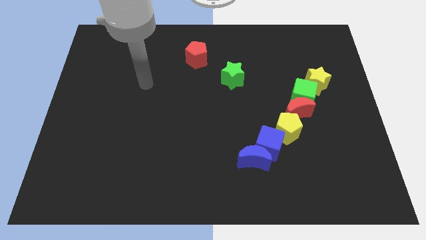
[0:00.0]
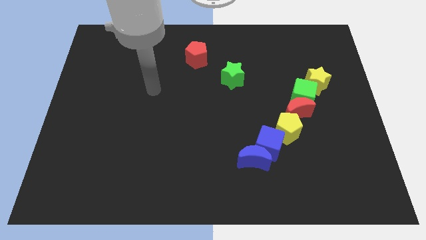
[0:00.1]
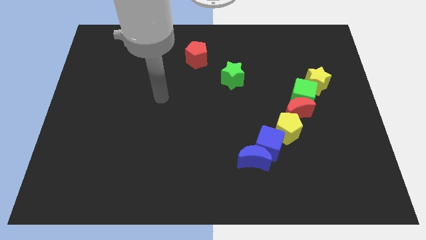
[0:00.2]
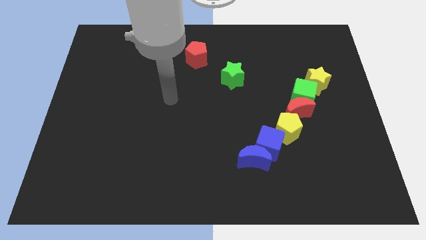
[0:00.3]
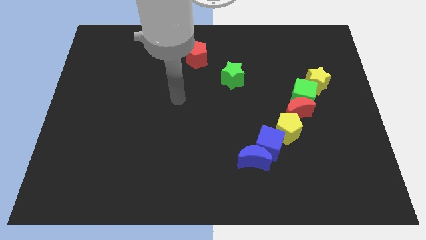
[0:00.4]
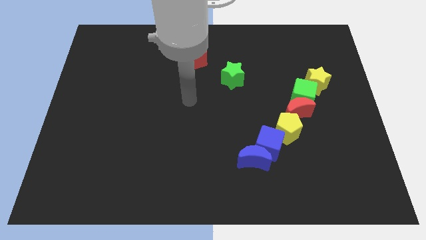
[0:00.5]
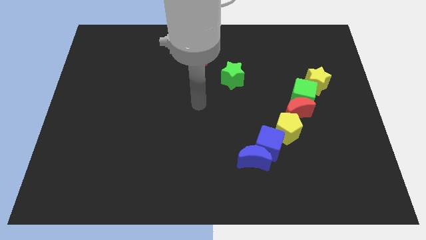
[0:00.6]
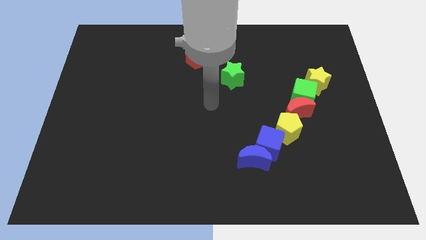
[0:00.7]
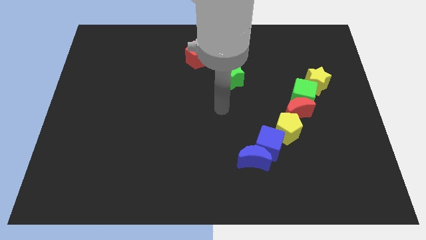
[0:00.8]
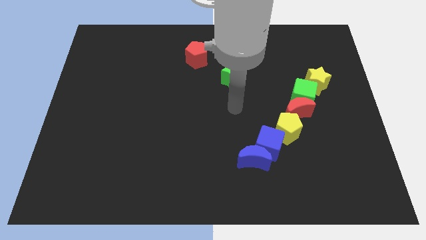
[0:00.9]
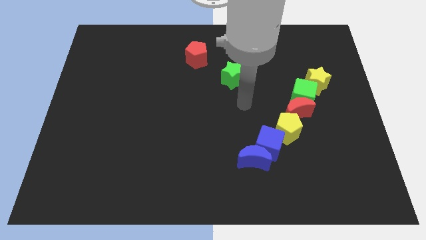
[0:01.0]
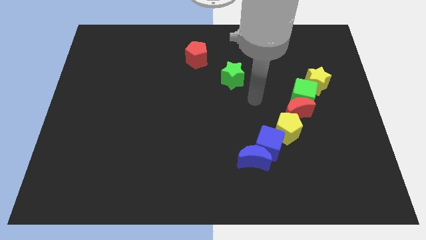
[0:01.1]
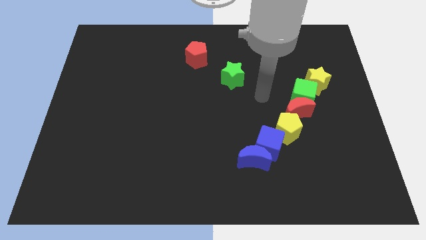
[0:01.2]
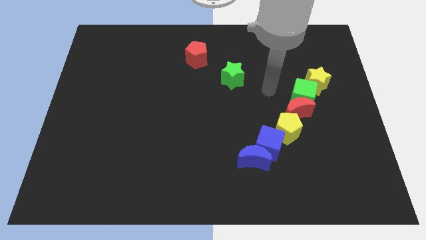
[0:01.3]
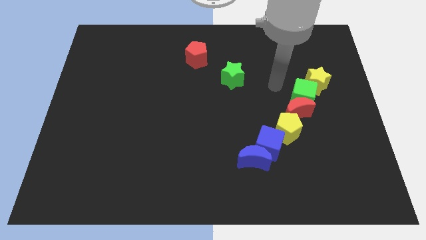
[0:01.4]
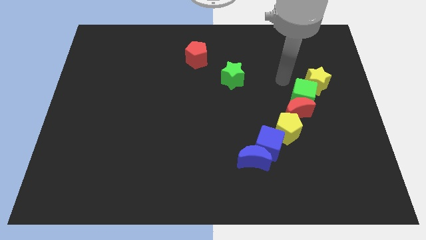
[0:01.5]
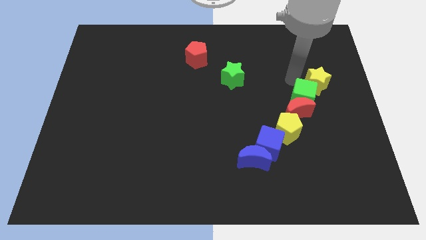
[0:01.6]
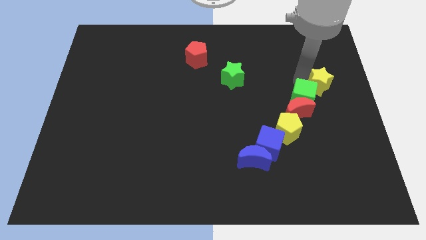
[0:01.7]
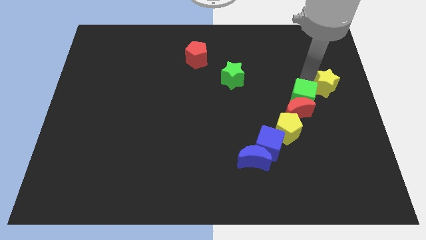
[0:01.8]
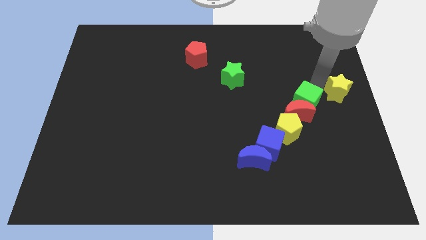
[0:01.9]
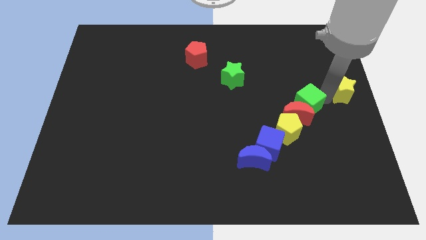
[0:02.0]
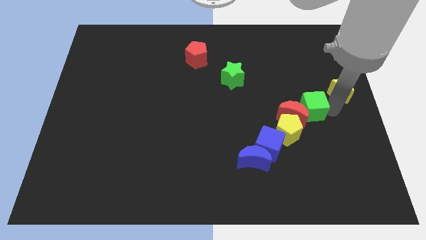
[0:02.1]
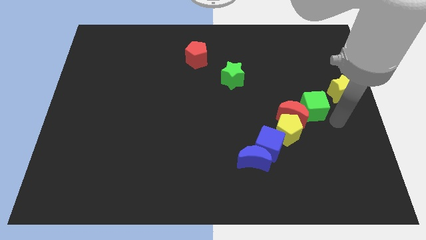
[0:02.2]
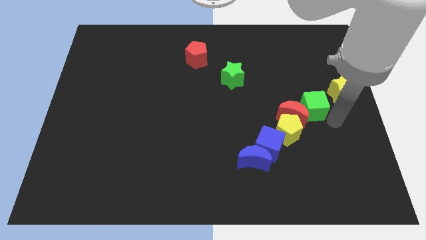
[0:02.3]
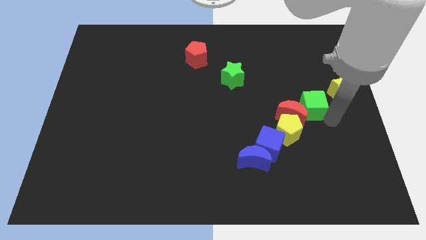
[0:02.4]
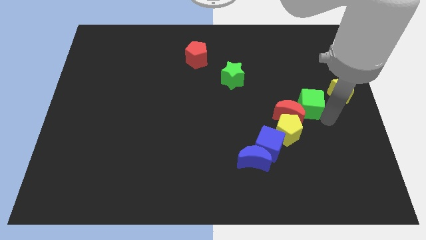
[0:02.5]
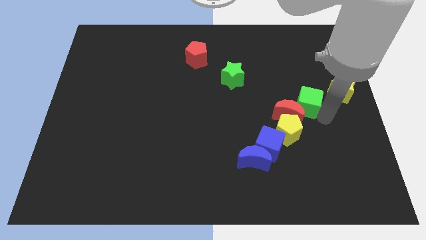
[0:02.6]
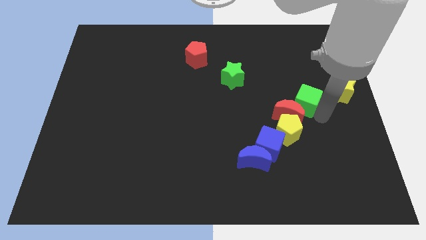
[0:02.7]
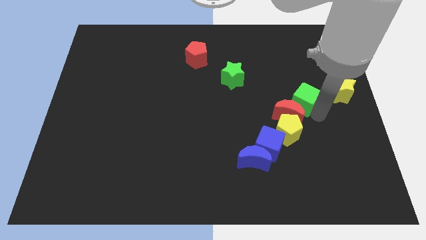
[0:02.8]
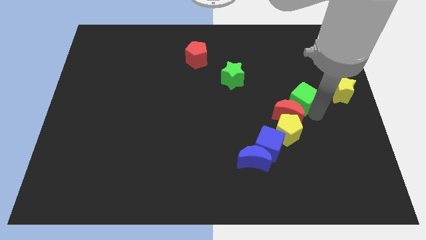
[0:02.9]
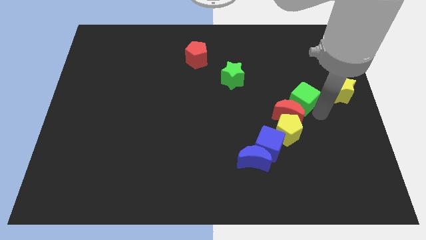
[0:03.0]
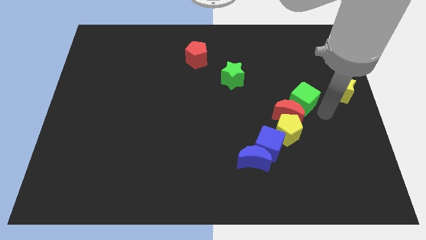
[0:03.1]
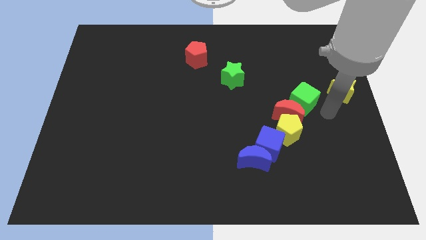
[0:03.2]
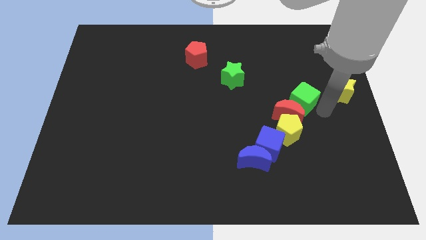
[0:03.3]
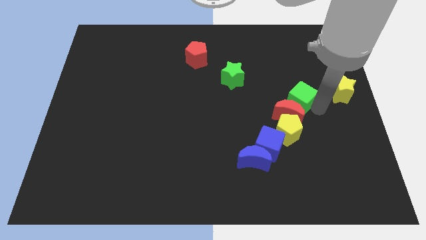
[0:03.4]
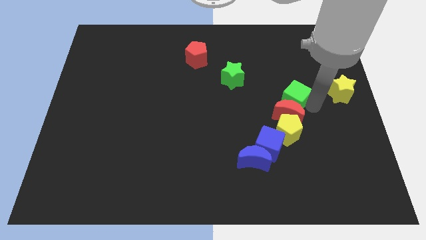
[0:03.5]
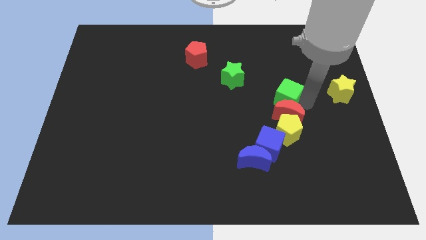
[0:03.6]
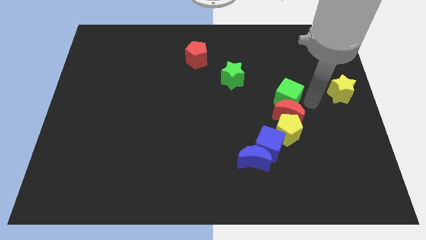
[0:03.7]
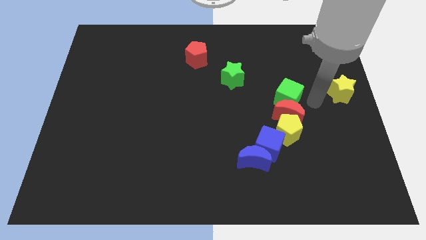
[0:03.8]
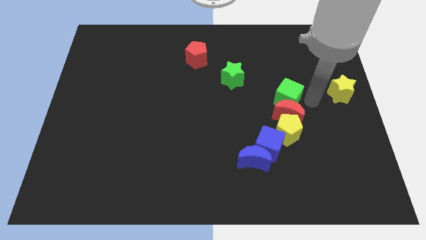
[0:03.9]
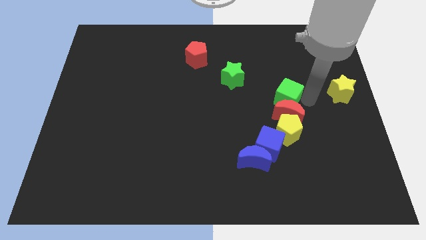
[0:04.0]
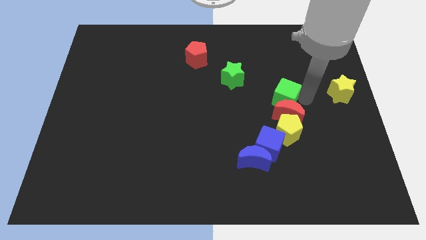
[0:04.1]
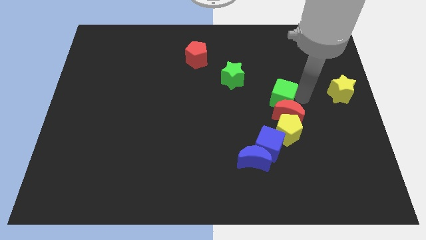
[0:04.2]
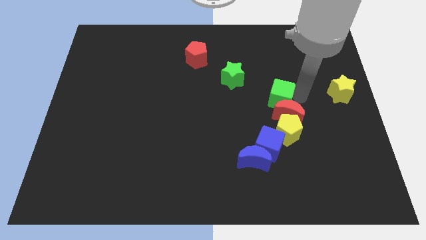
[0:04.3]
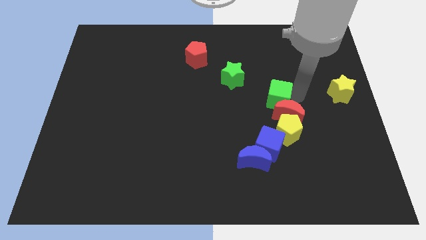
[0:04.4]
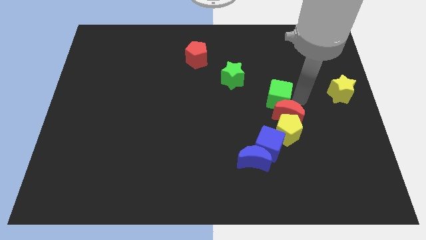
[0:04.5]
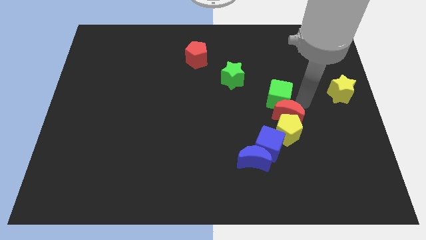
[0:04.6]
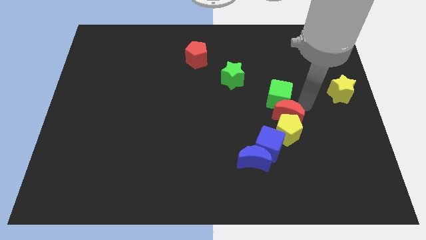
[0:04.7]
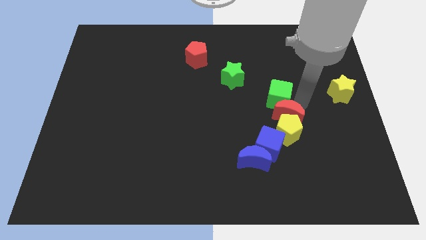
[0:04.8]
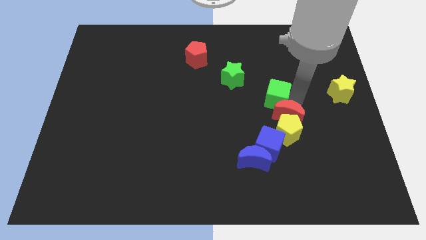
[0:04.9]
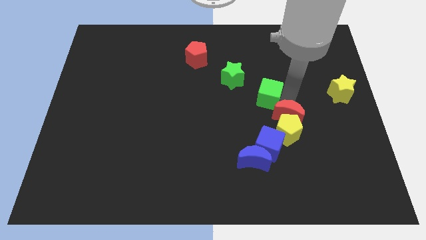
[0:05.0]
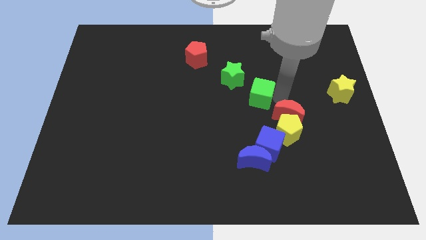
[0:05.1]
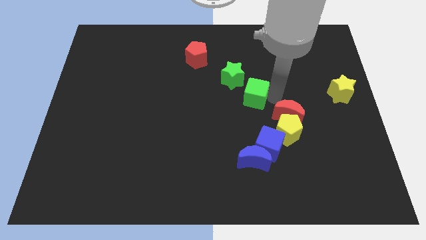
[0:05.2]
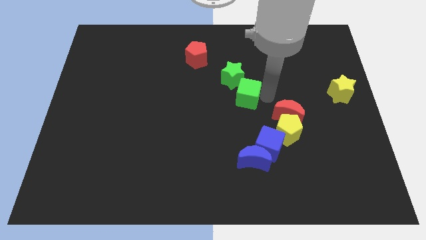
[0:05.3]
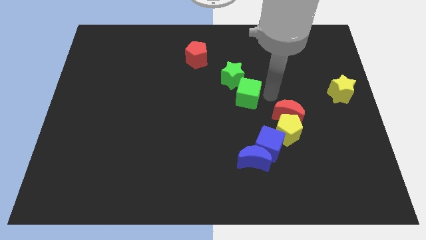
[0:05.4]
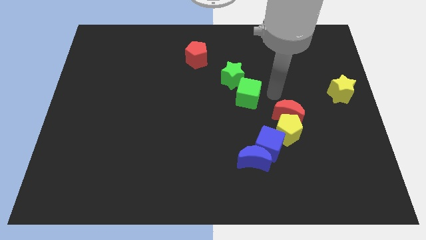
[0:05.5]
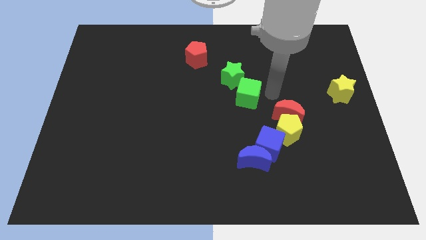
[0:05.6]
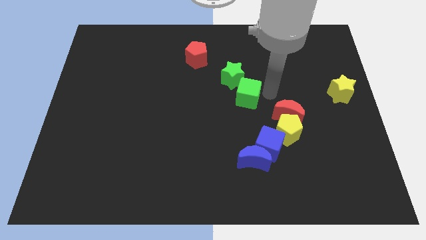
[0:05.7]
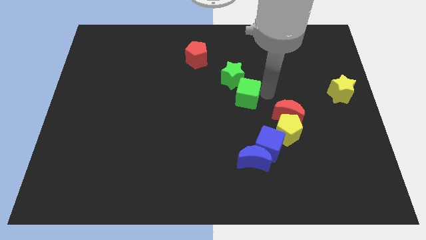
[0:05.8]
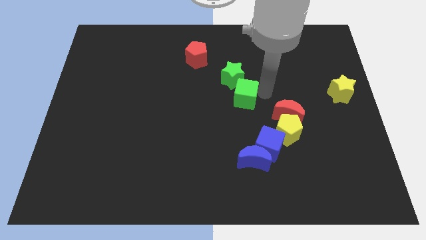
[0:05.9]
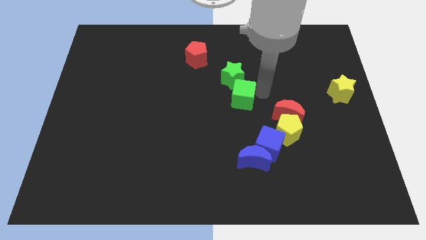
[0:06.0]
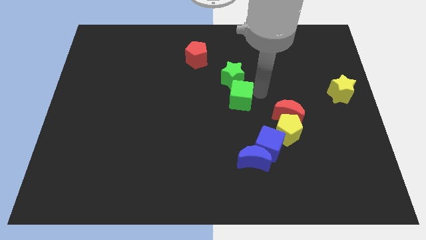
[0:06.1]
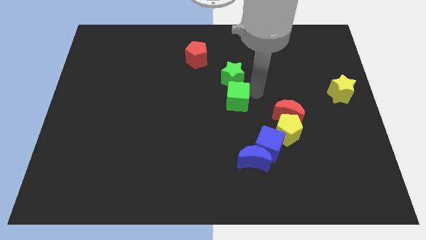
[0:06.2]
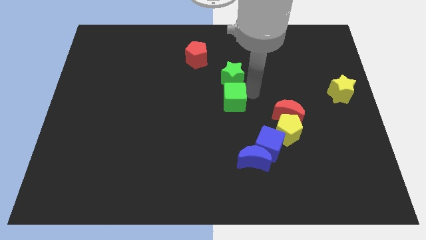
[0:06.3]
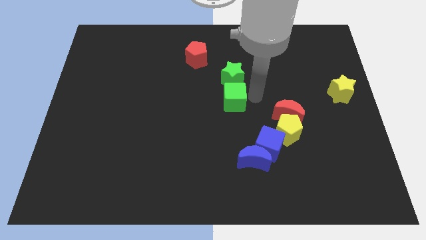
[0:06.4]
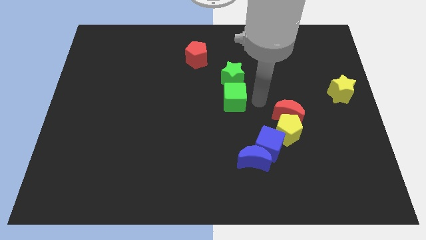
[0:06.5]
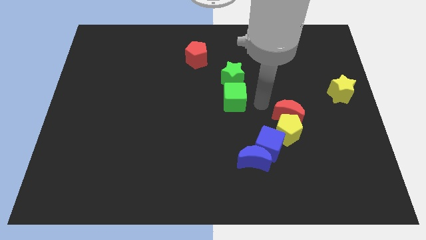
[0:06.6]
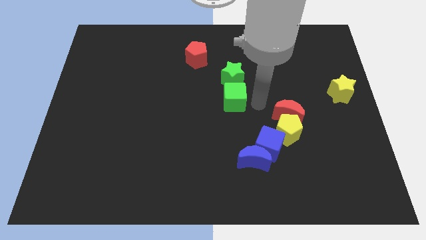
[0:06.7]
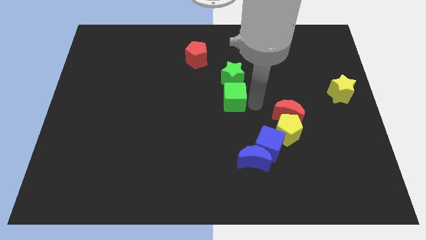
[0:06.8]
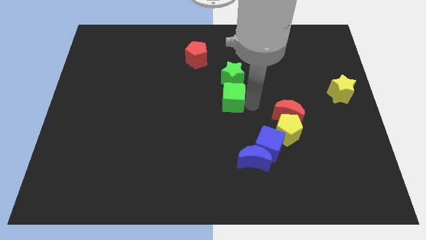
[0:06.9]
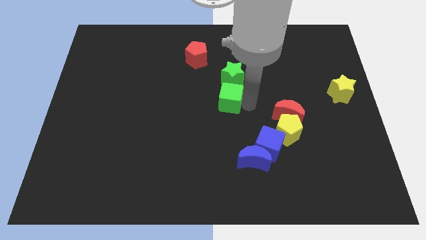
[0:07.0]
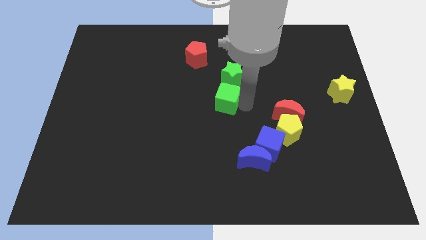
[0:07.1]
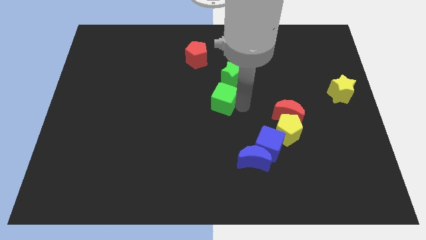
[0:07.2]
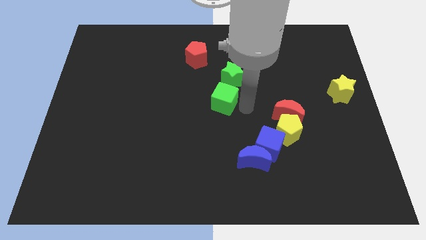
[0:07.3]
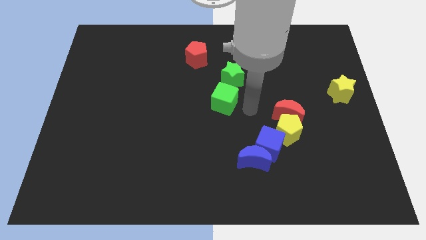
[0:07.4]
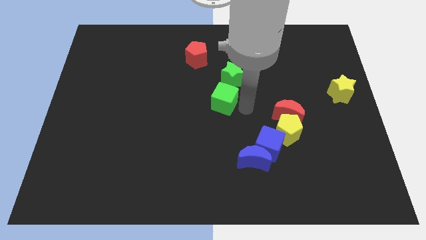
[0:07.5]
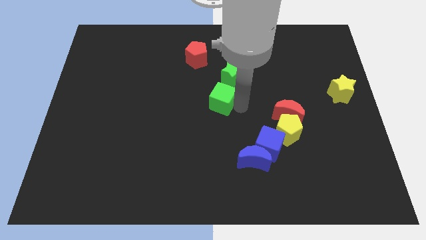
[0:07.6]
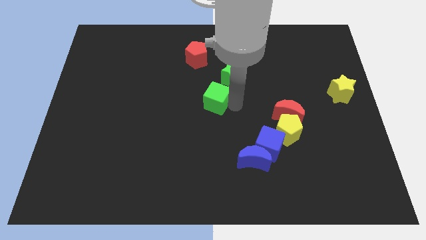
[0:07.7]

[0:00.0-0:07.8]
slide the green cube to the left

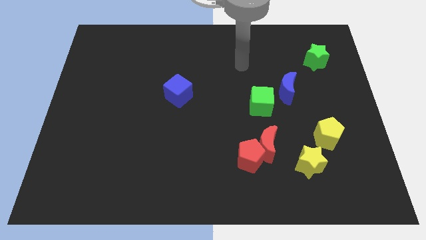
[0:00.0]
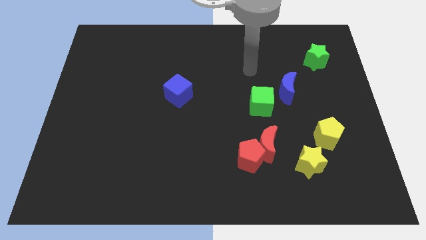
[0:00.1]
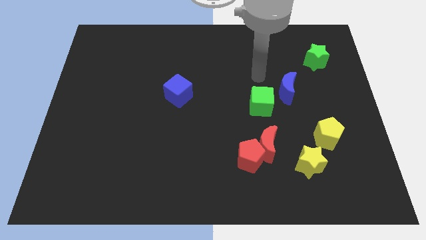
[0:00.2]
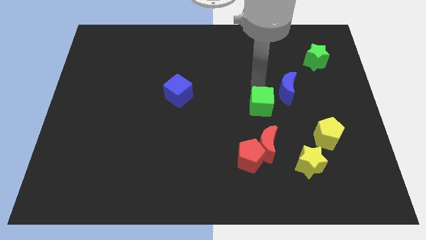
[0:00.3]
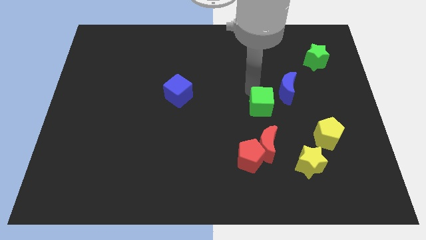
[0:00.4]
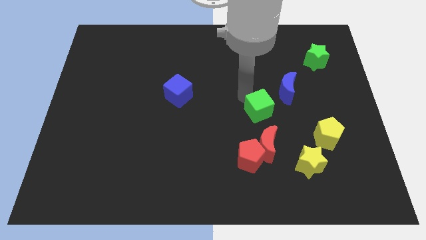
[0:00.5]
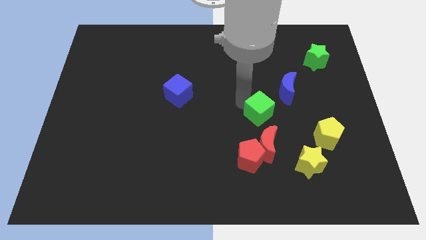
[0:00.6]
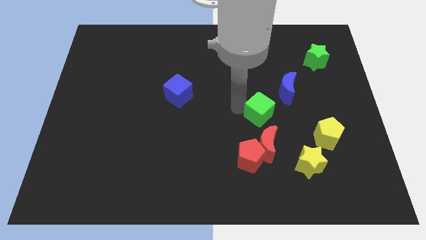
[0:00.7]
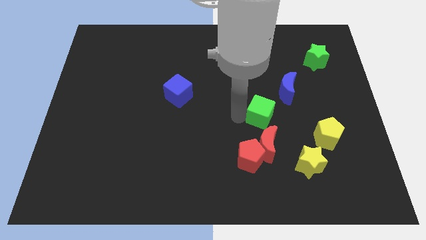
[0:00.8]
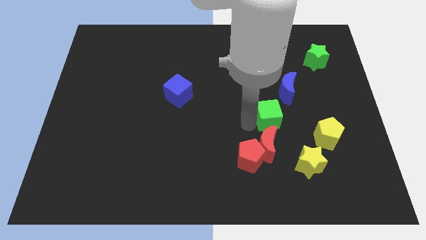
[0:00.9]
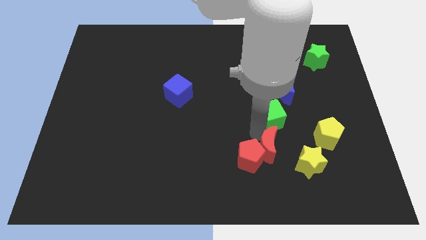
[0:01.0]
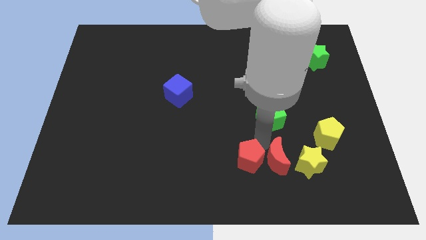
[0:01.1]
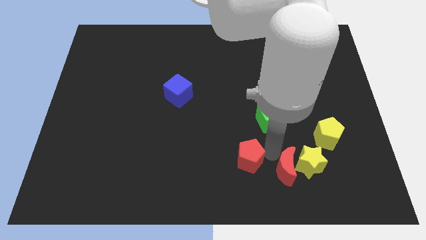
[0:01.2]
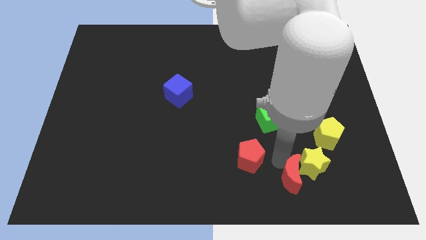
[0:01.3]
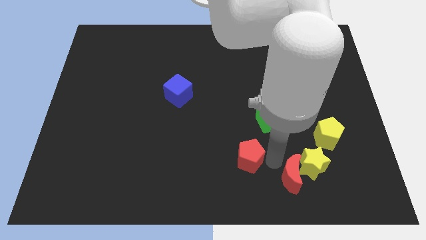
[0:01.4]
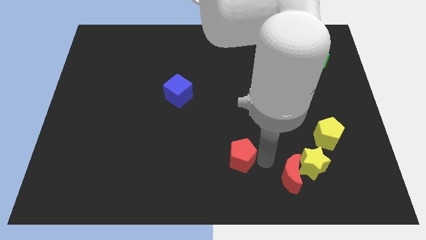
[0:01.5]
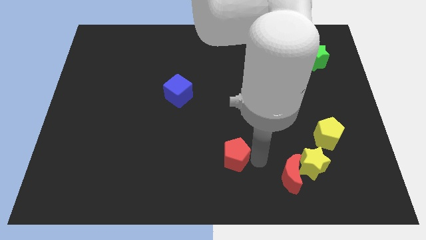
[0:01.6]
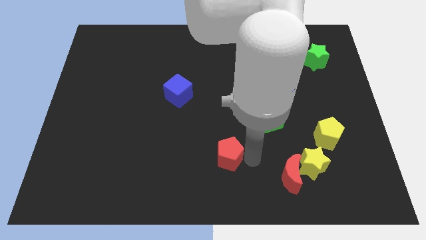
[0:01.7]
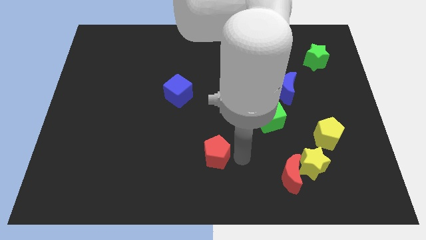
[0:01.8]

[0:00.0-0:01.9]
push the red pentagon to the left a little
